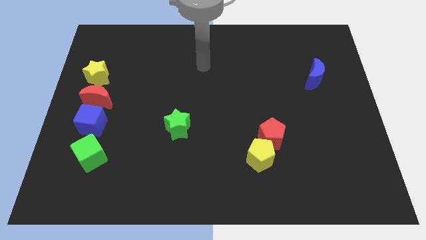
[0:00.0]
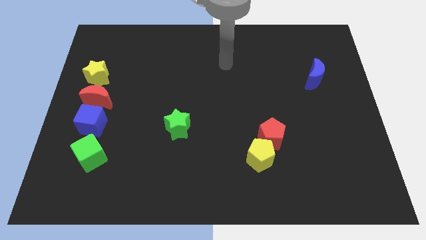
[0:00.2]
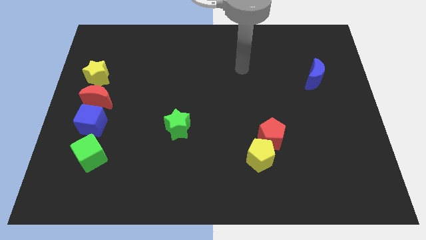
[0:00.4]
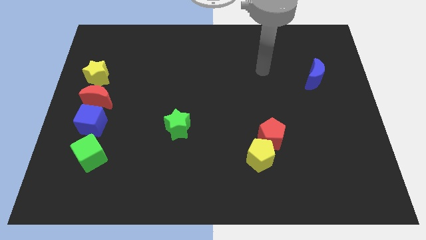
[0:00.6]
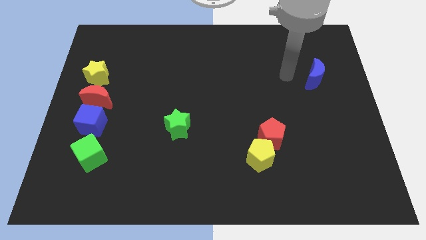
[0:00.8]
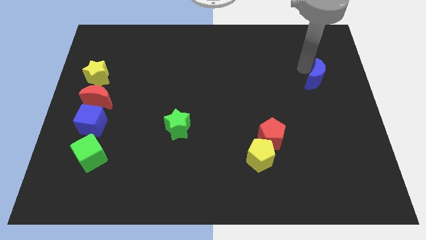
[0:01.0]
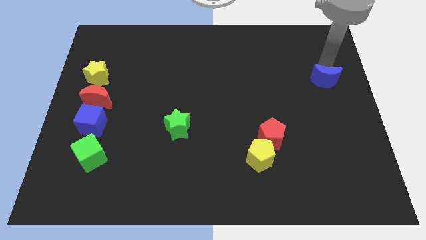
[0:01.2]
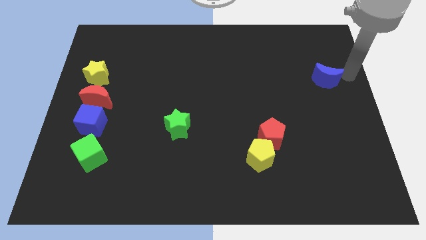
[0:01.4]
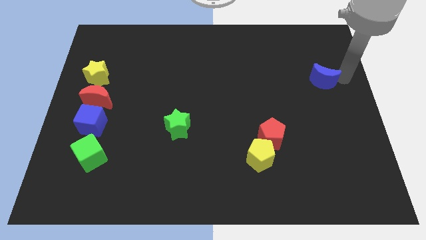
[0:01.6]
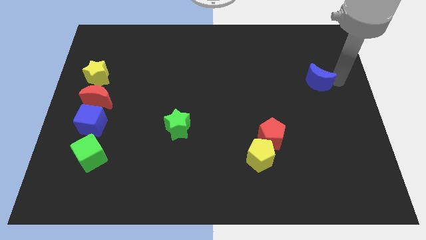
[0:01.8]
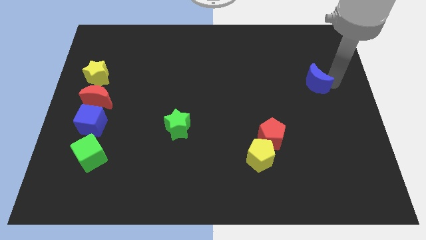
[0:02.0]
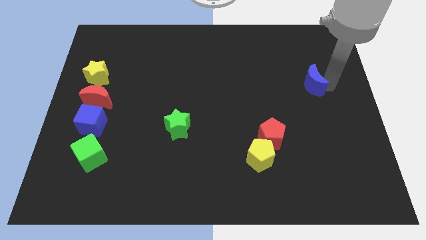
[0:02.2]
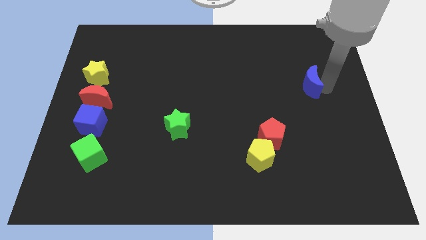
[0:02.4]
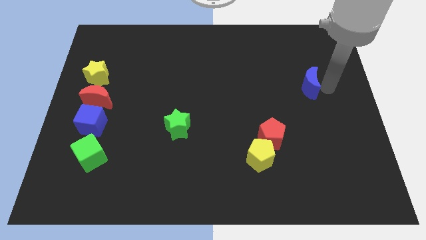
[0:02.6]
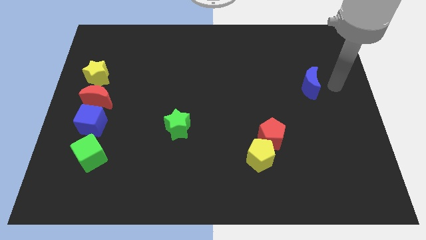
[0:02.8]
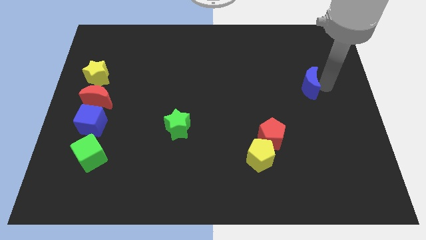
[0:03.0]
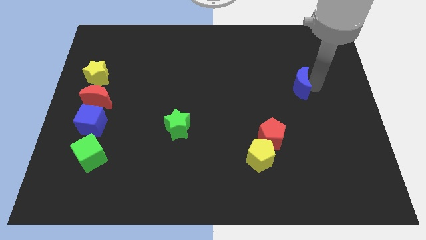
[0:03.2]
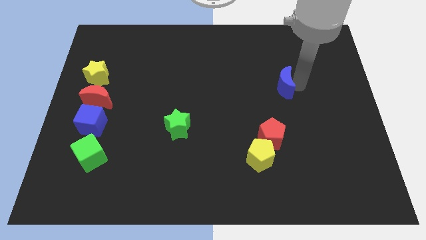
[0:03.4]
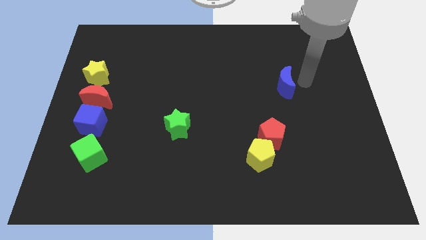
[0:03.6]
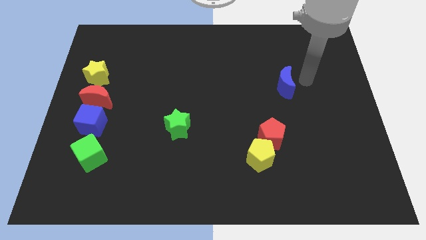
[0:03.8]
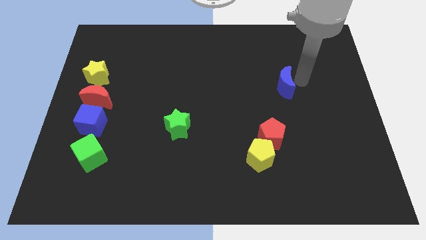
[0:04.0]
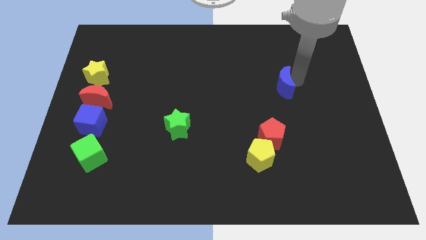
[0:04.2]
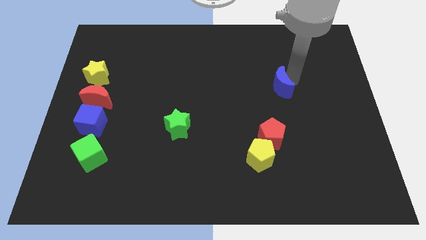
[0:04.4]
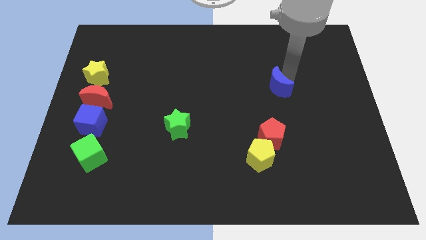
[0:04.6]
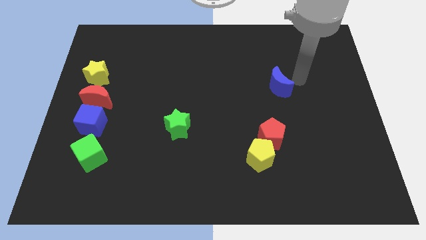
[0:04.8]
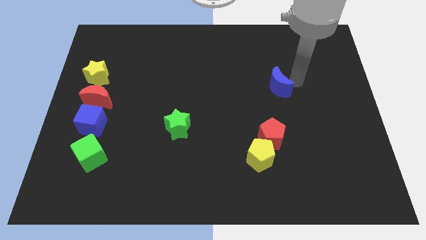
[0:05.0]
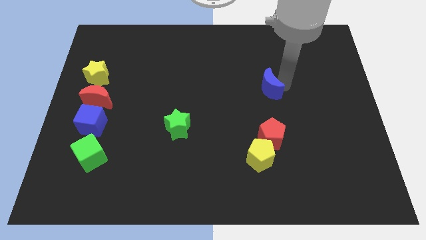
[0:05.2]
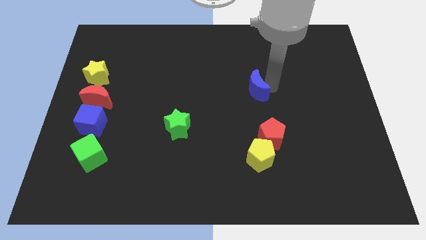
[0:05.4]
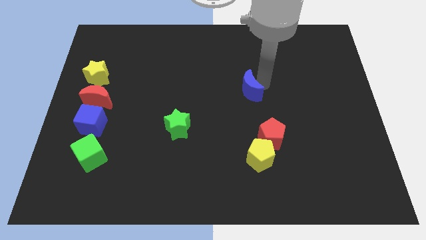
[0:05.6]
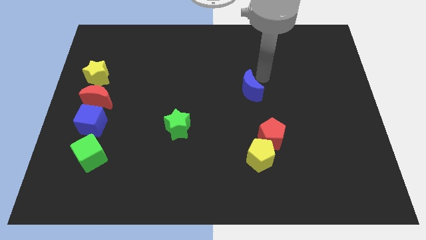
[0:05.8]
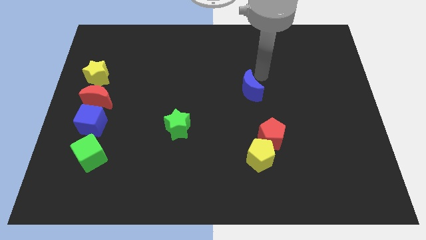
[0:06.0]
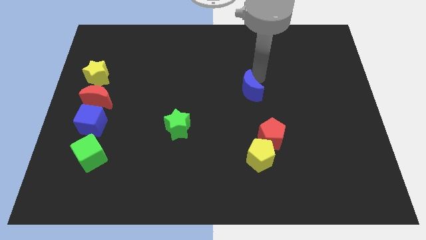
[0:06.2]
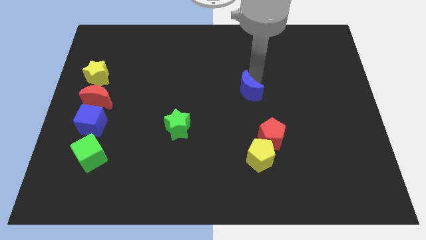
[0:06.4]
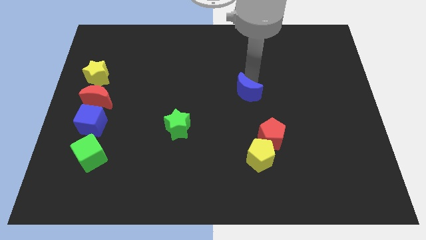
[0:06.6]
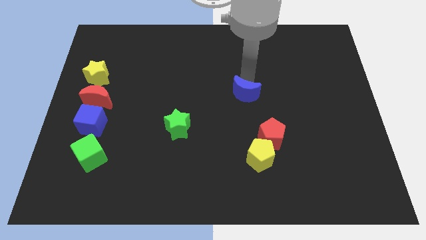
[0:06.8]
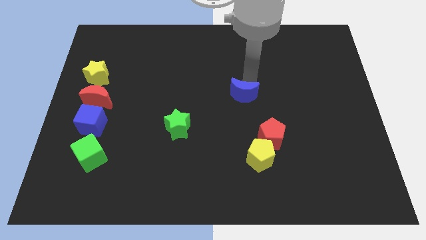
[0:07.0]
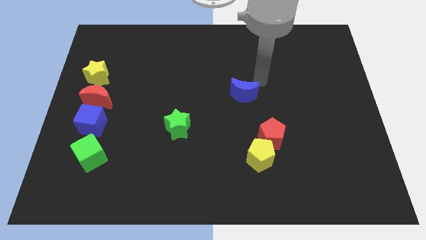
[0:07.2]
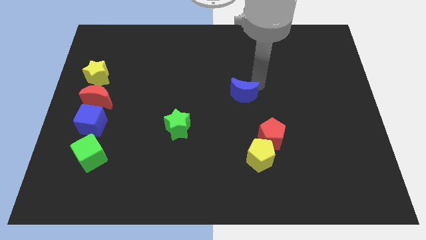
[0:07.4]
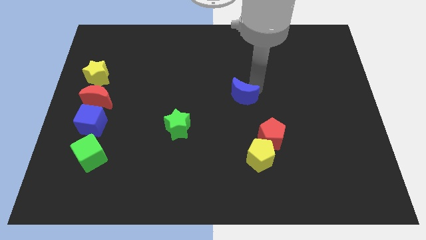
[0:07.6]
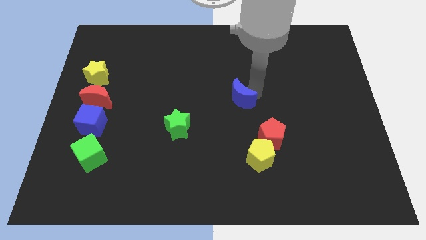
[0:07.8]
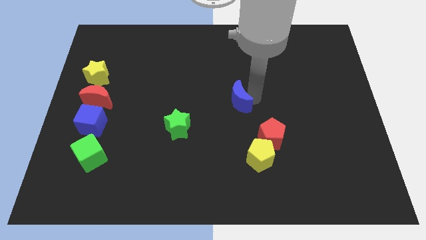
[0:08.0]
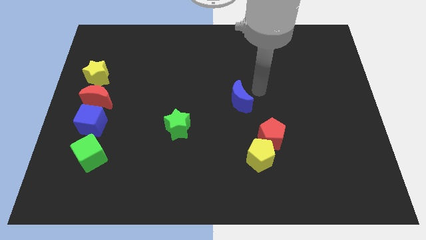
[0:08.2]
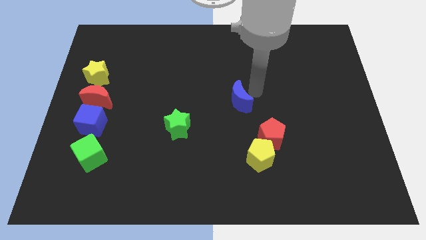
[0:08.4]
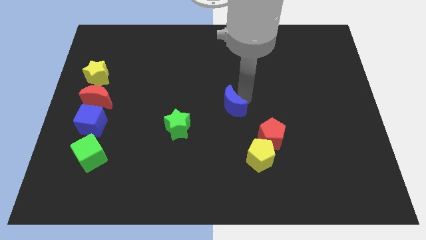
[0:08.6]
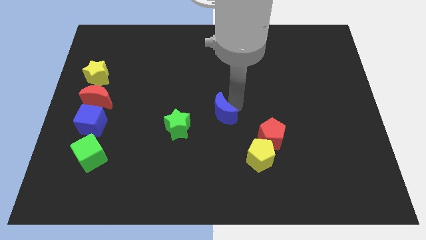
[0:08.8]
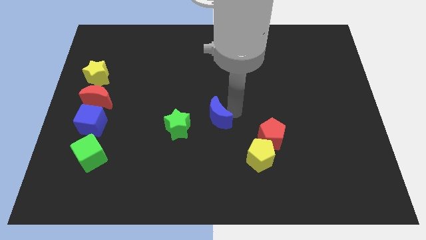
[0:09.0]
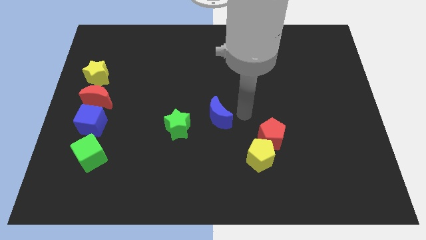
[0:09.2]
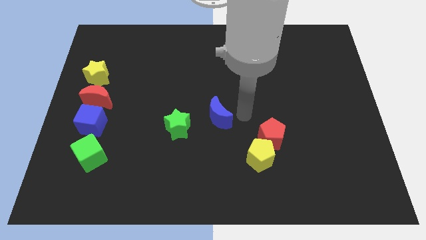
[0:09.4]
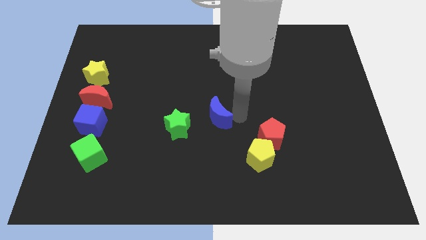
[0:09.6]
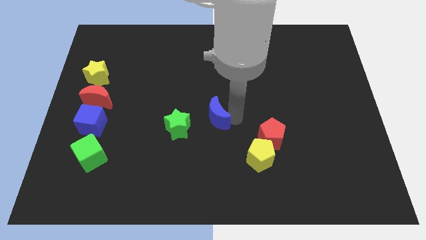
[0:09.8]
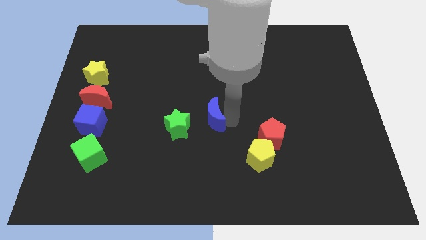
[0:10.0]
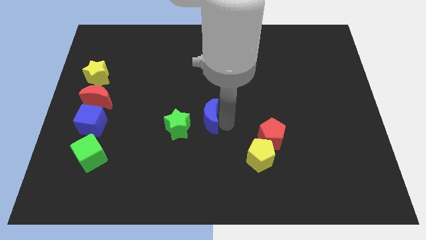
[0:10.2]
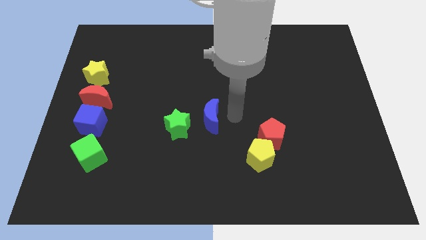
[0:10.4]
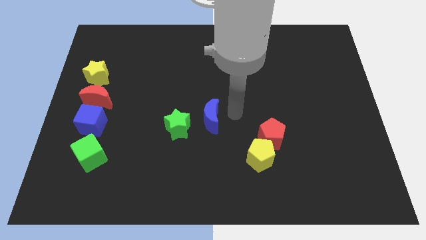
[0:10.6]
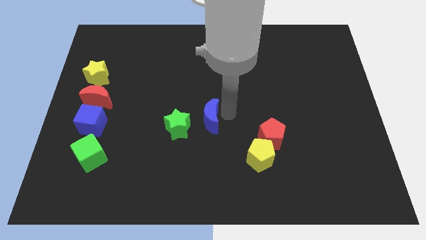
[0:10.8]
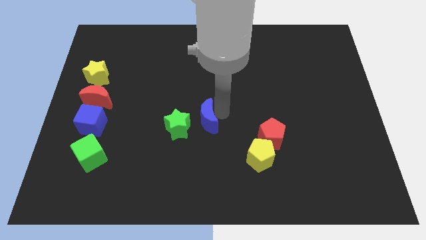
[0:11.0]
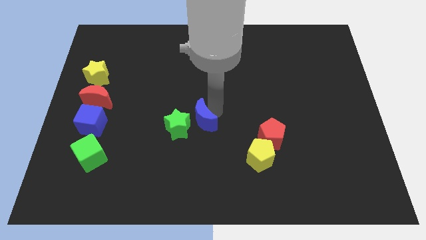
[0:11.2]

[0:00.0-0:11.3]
put the blue moon close to the green star

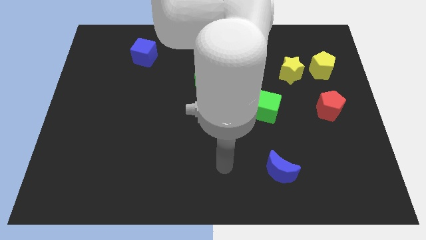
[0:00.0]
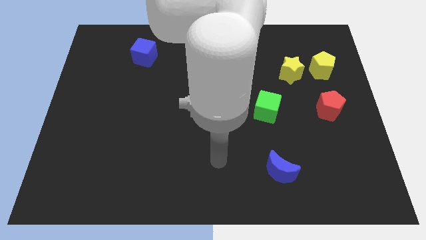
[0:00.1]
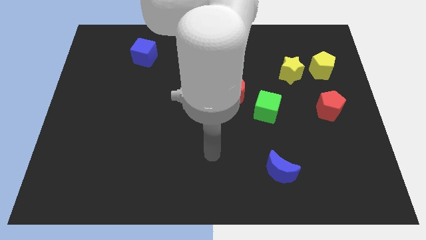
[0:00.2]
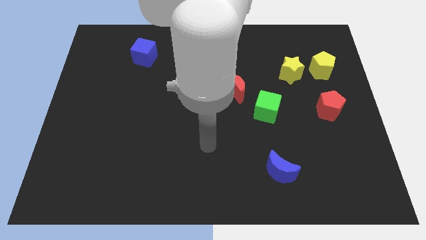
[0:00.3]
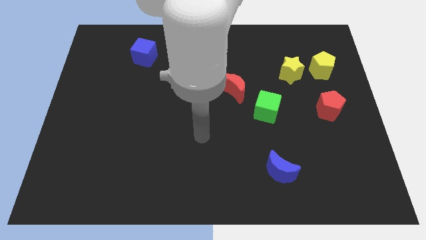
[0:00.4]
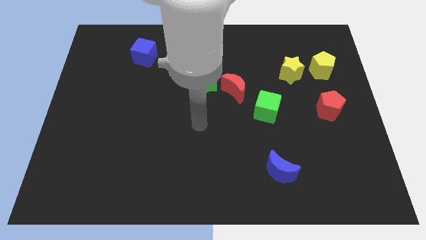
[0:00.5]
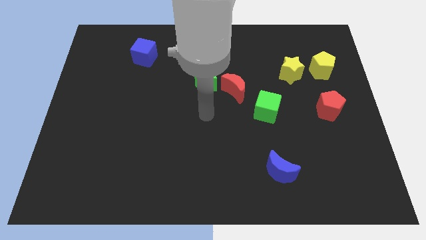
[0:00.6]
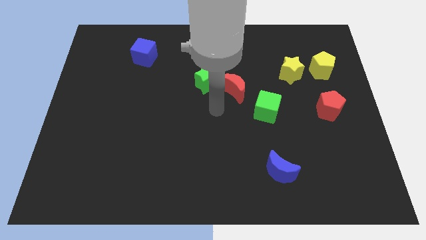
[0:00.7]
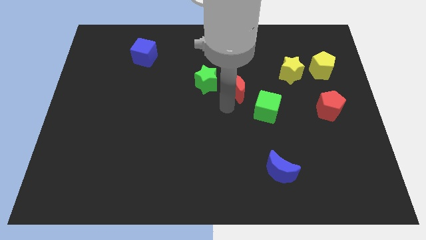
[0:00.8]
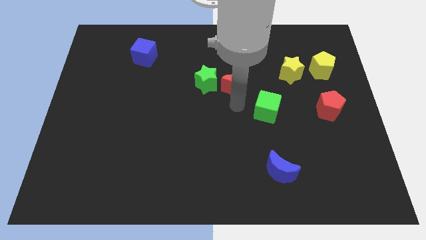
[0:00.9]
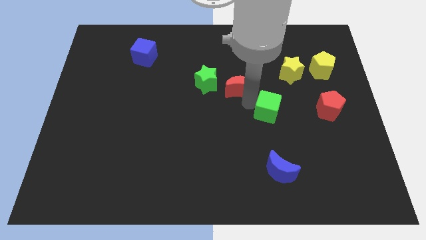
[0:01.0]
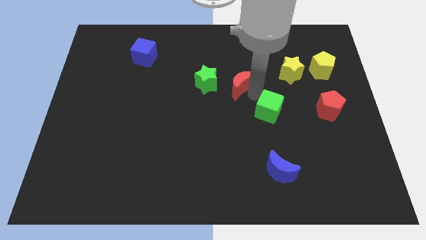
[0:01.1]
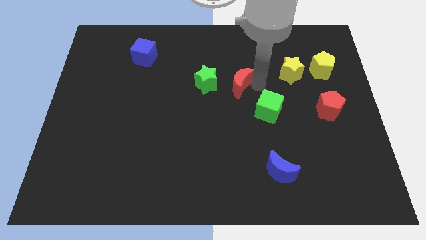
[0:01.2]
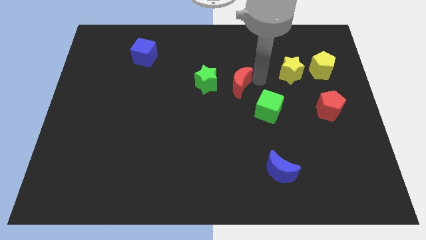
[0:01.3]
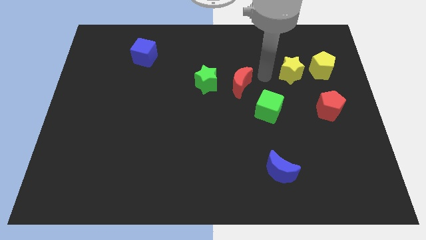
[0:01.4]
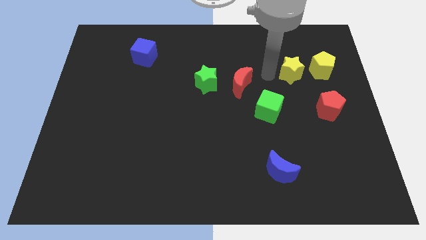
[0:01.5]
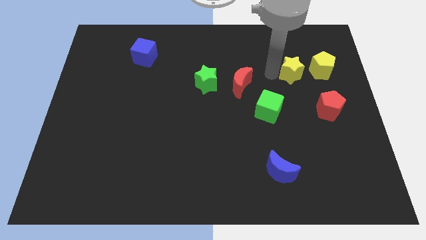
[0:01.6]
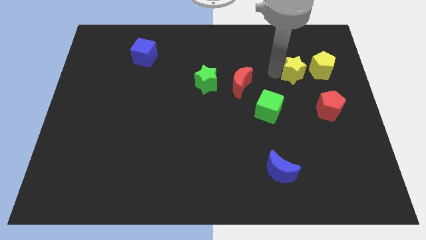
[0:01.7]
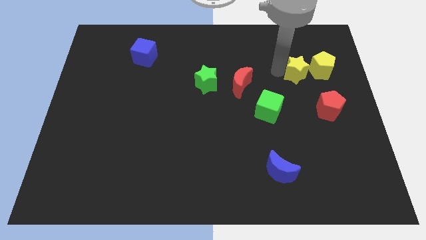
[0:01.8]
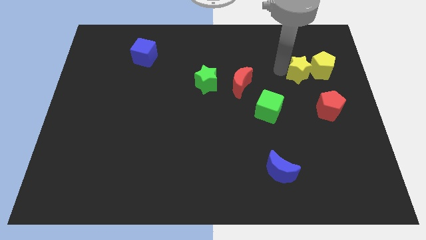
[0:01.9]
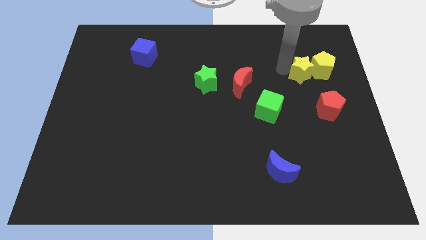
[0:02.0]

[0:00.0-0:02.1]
move the yellow star to the yellow pentagon
